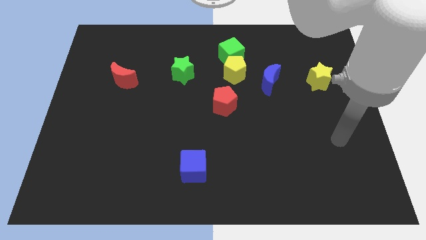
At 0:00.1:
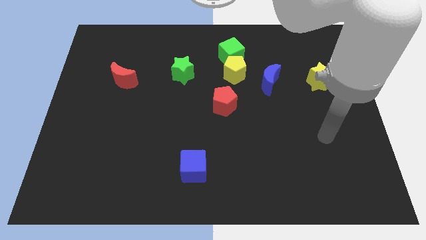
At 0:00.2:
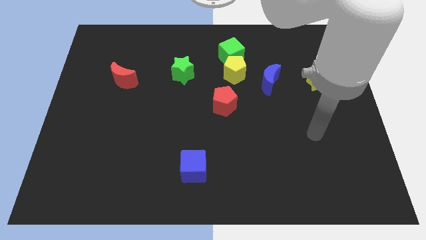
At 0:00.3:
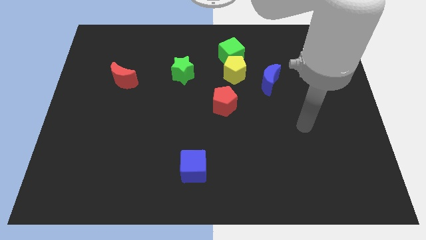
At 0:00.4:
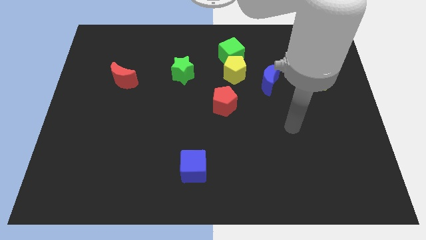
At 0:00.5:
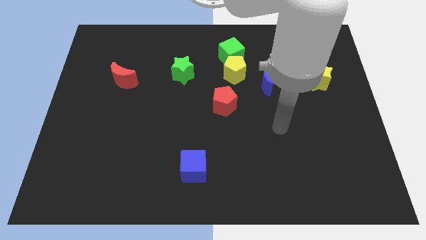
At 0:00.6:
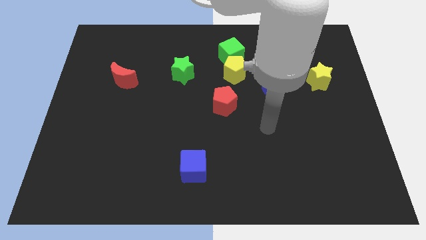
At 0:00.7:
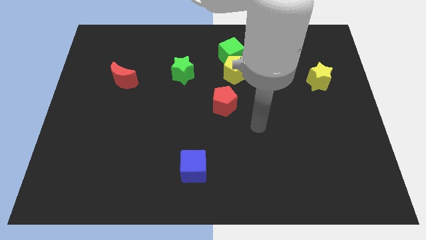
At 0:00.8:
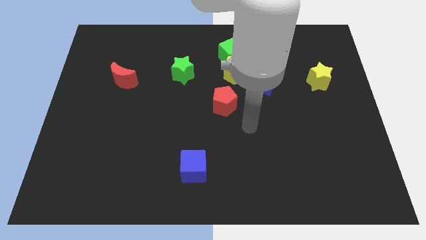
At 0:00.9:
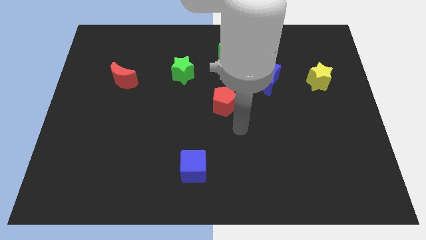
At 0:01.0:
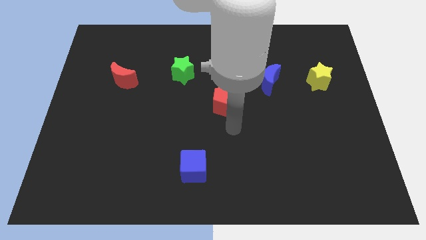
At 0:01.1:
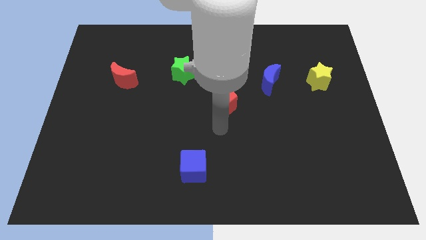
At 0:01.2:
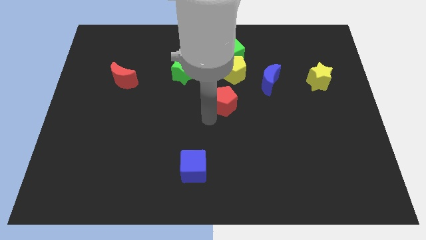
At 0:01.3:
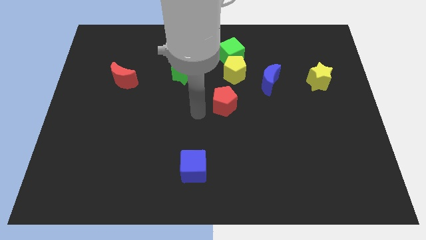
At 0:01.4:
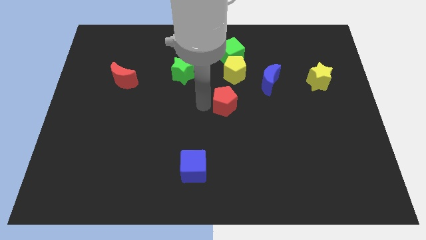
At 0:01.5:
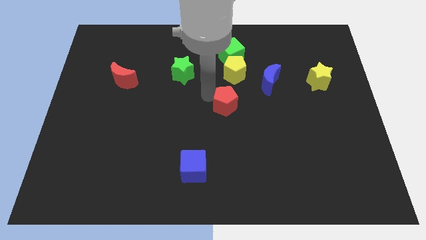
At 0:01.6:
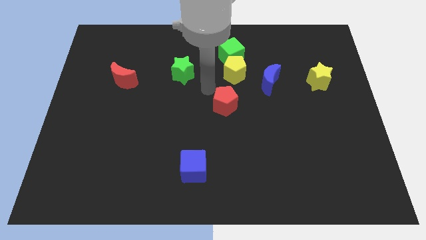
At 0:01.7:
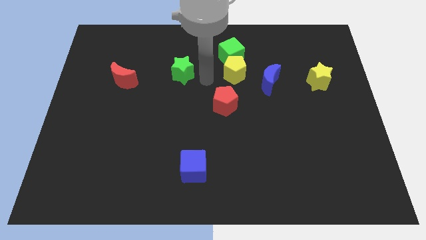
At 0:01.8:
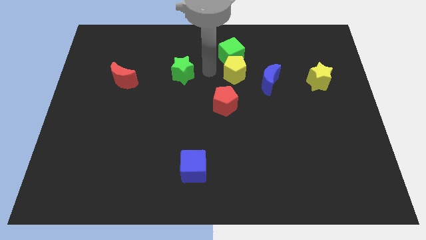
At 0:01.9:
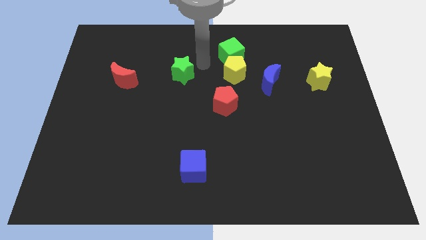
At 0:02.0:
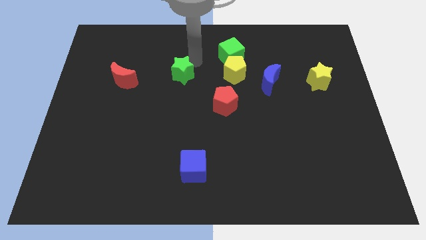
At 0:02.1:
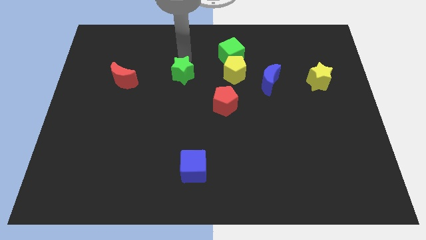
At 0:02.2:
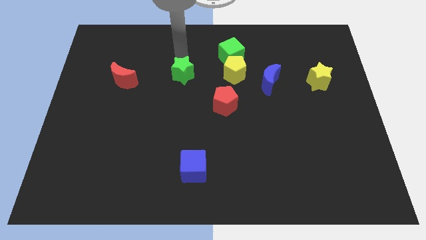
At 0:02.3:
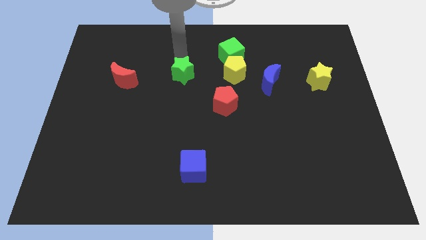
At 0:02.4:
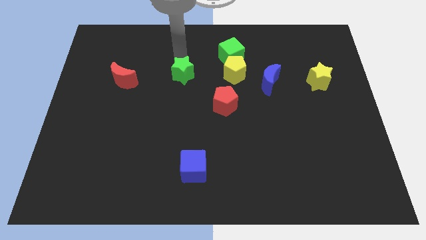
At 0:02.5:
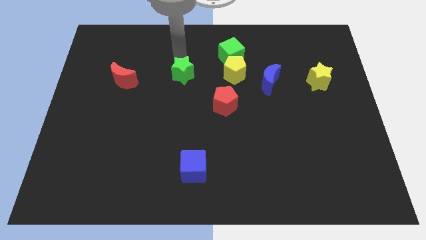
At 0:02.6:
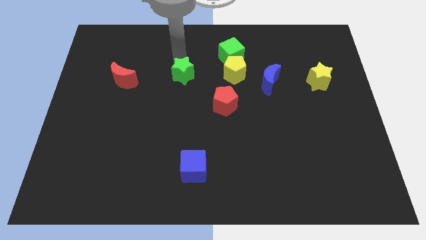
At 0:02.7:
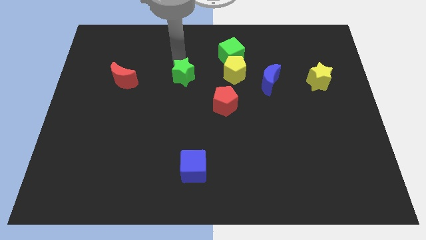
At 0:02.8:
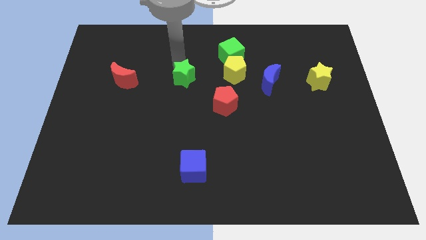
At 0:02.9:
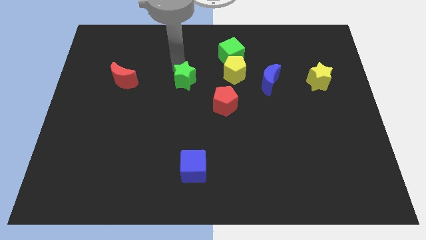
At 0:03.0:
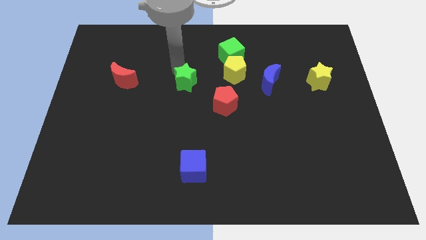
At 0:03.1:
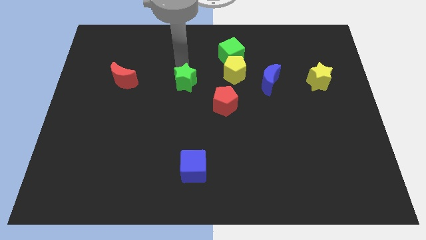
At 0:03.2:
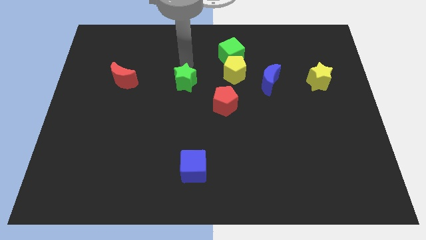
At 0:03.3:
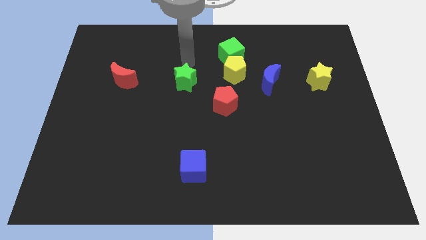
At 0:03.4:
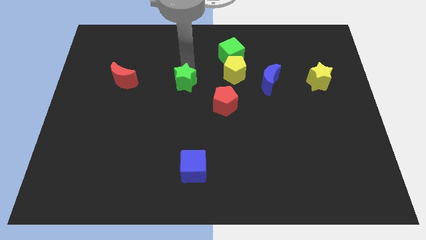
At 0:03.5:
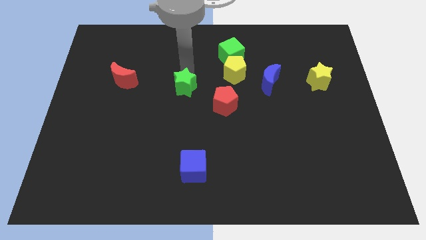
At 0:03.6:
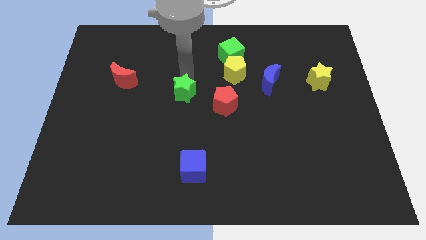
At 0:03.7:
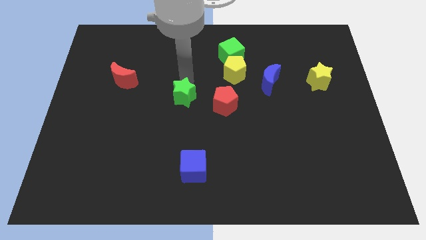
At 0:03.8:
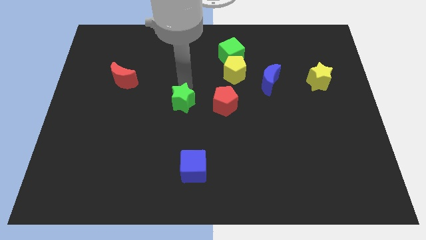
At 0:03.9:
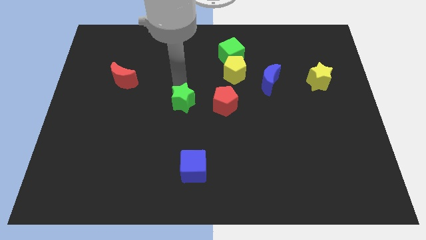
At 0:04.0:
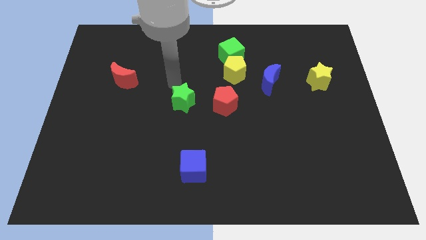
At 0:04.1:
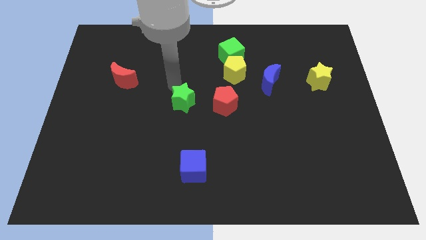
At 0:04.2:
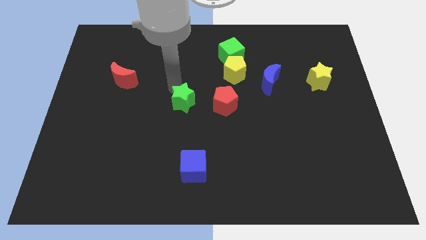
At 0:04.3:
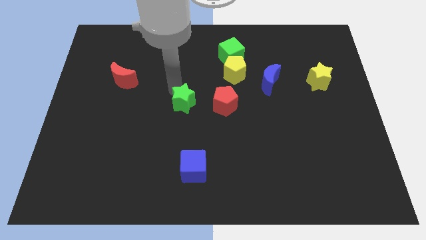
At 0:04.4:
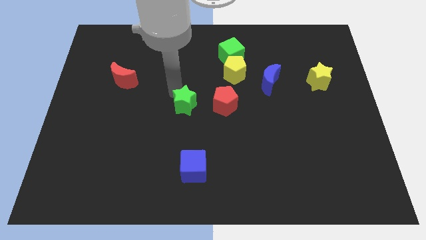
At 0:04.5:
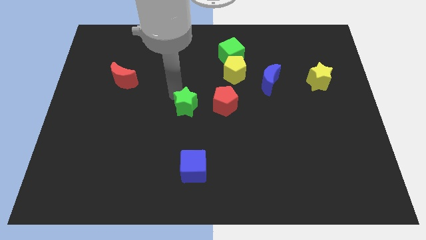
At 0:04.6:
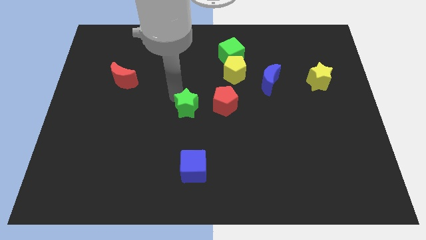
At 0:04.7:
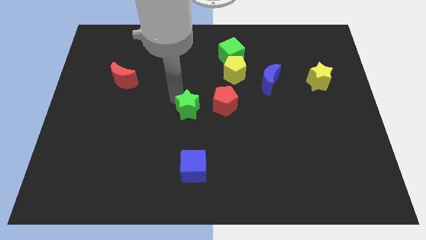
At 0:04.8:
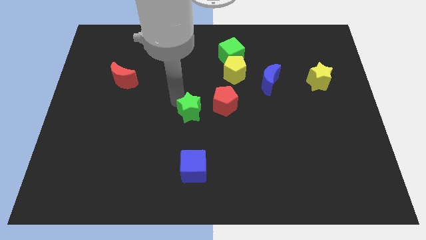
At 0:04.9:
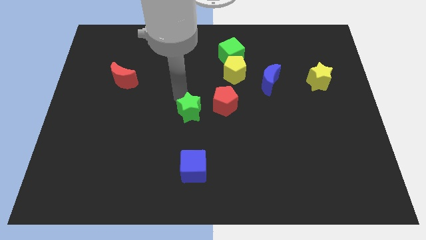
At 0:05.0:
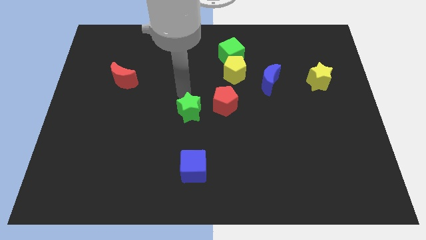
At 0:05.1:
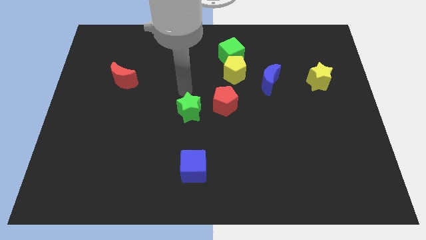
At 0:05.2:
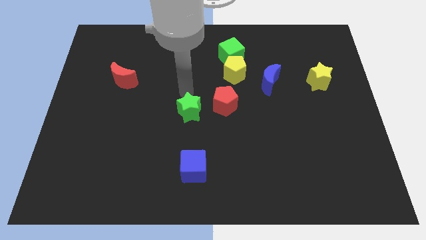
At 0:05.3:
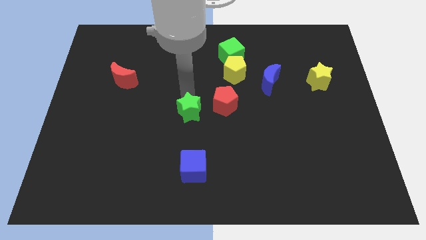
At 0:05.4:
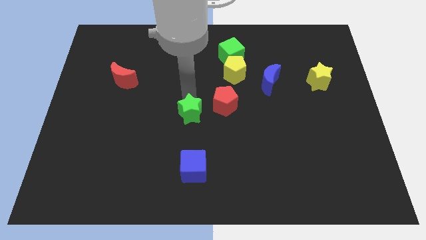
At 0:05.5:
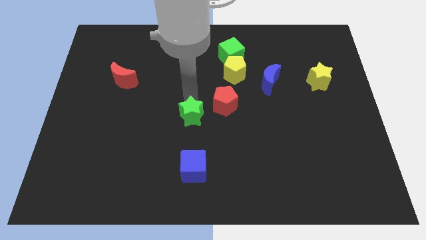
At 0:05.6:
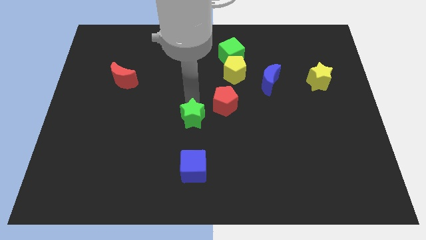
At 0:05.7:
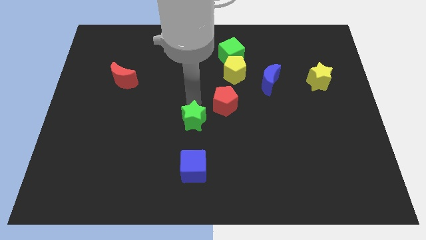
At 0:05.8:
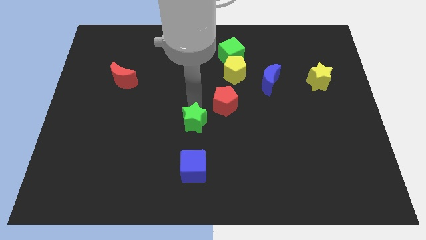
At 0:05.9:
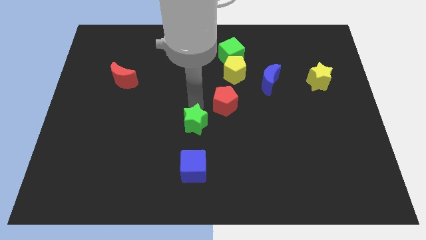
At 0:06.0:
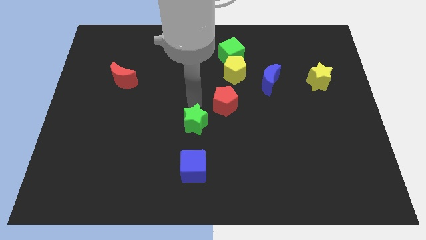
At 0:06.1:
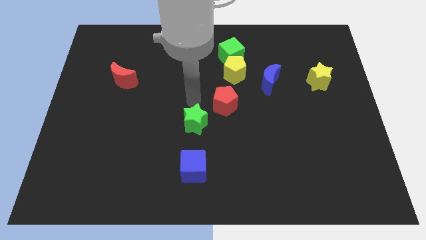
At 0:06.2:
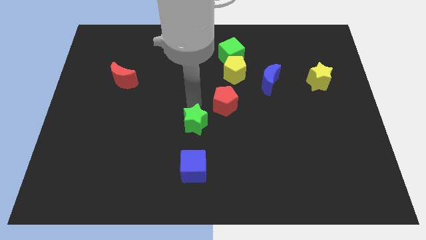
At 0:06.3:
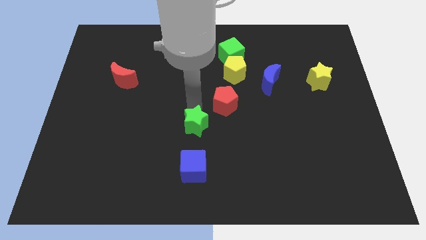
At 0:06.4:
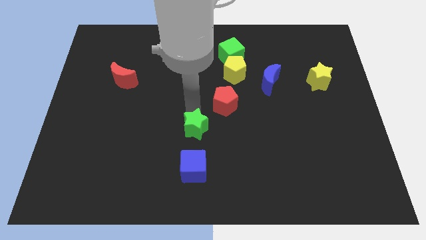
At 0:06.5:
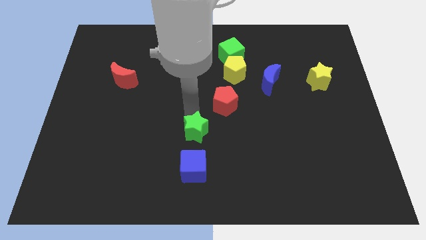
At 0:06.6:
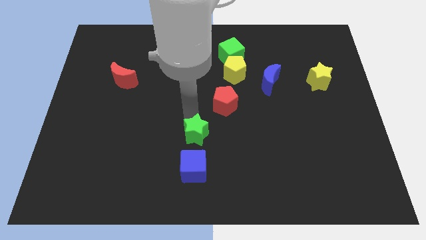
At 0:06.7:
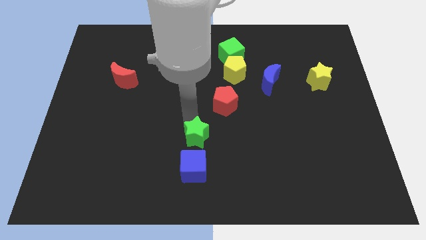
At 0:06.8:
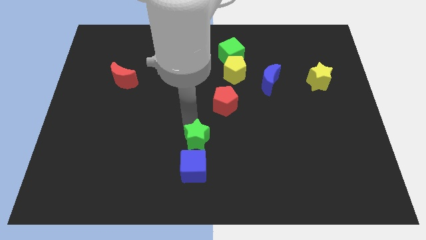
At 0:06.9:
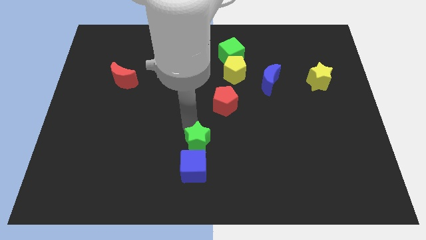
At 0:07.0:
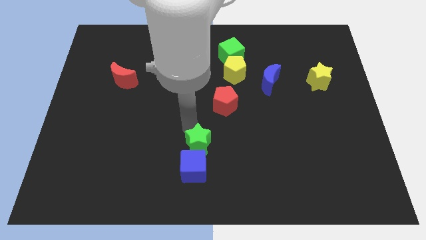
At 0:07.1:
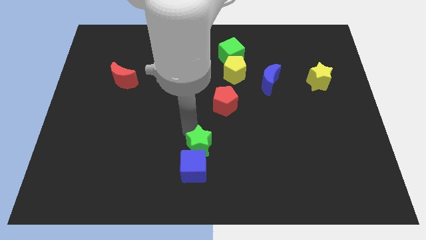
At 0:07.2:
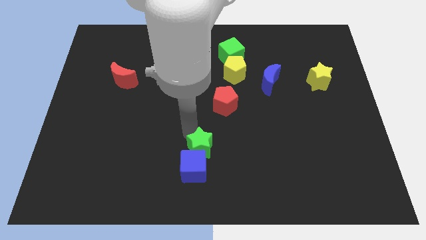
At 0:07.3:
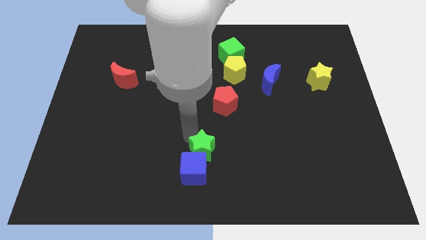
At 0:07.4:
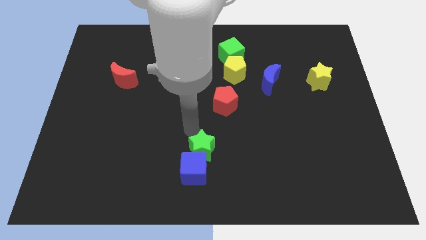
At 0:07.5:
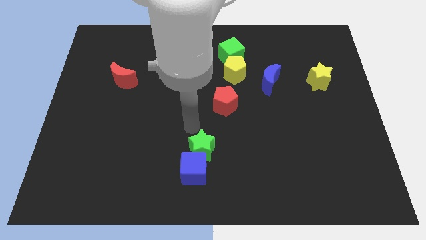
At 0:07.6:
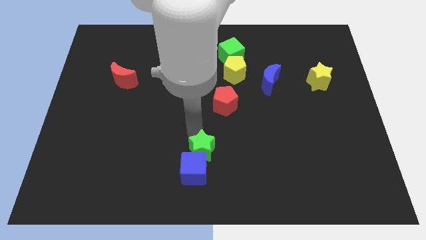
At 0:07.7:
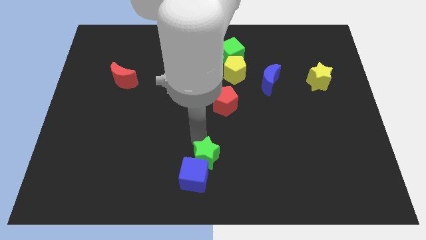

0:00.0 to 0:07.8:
move the green star to the bottom side

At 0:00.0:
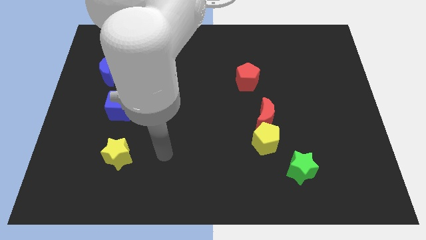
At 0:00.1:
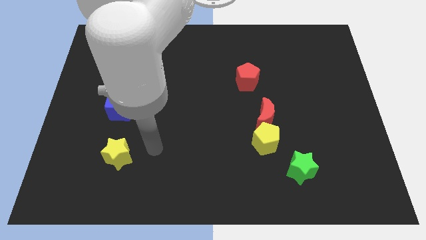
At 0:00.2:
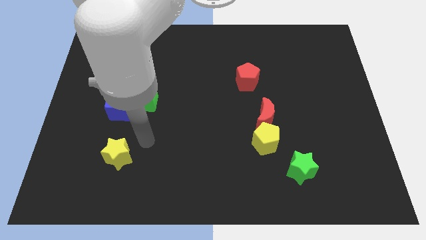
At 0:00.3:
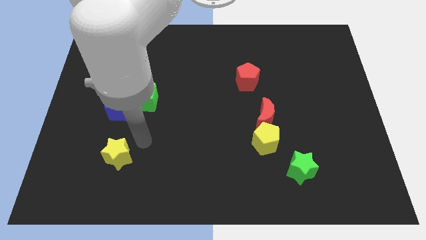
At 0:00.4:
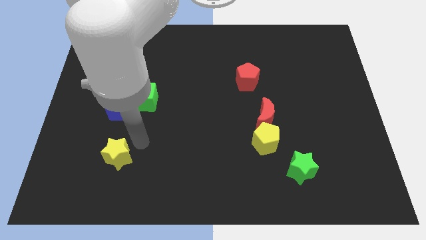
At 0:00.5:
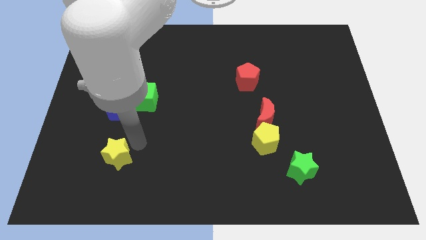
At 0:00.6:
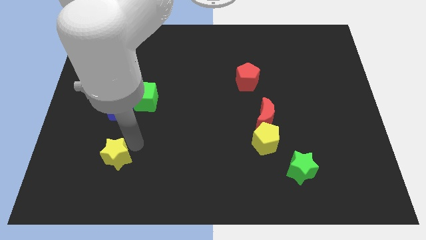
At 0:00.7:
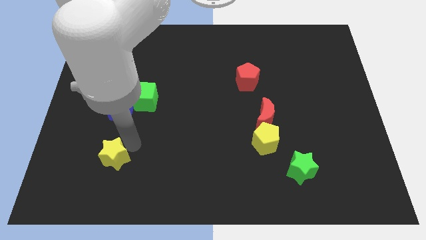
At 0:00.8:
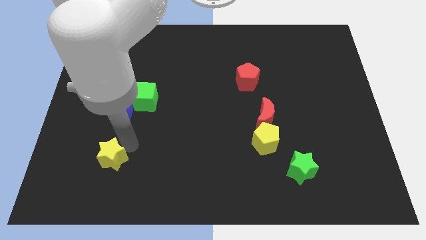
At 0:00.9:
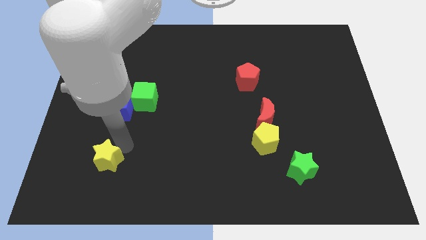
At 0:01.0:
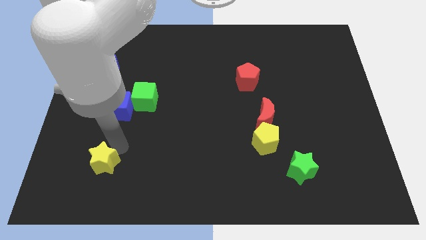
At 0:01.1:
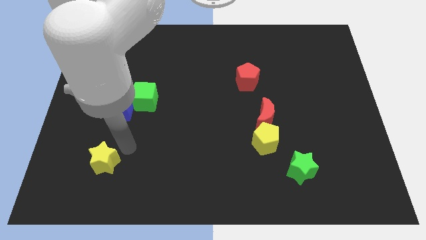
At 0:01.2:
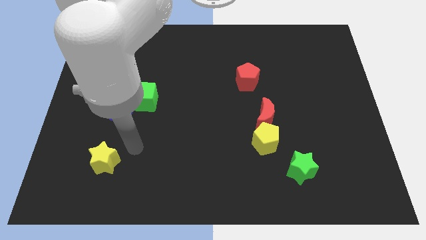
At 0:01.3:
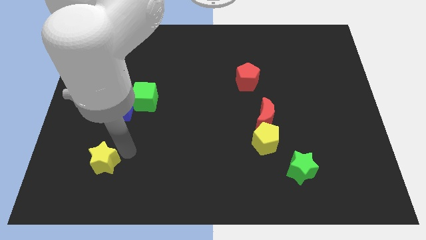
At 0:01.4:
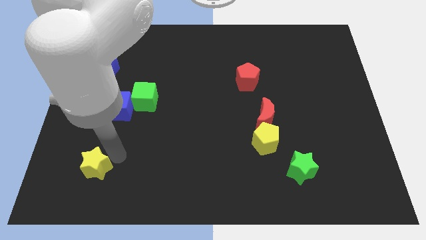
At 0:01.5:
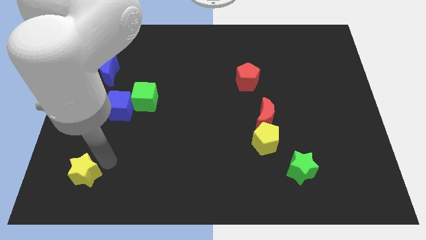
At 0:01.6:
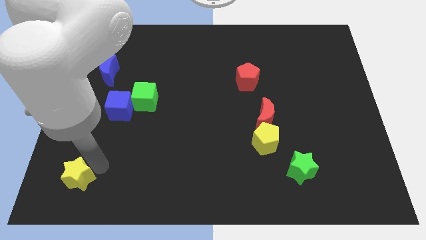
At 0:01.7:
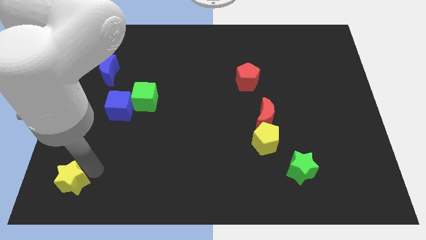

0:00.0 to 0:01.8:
slide the yellow star to the bottom left of the board
